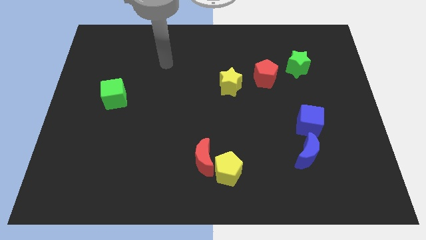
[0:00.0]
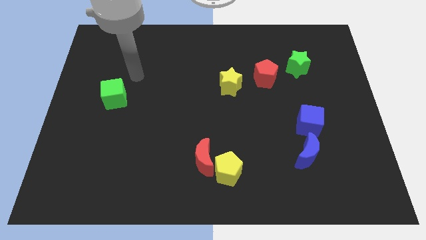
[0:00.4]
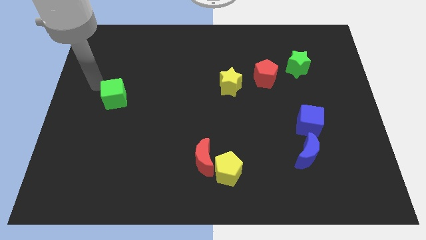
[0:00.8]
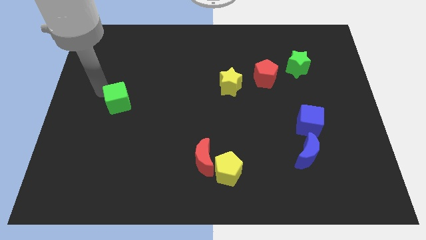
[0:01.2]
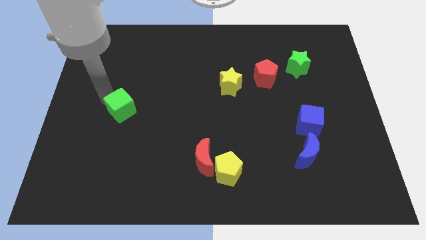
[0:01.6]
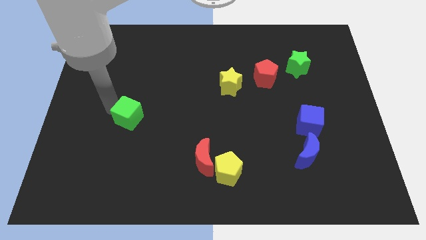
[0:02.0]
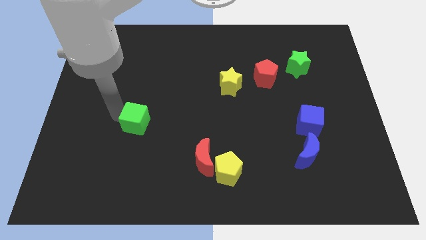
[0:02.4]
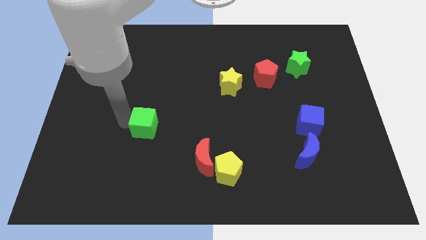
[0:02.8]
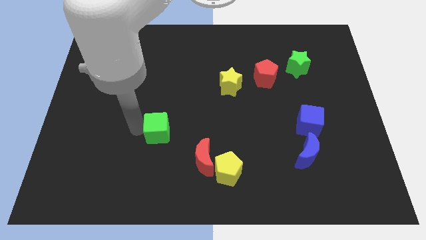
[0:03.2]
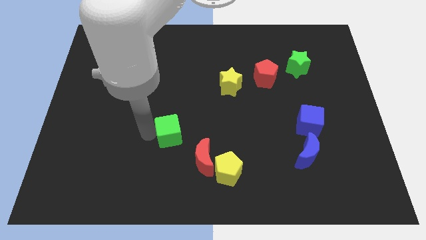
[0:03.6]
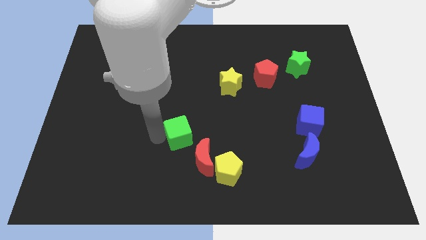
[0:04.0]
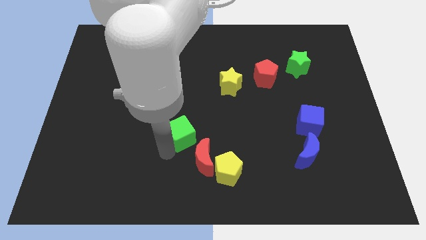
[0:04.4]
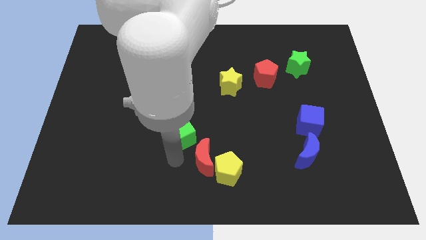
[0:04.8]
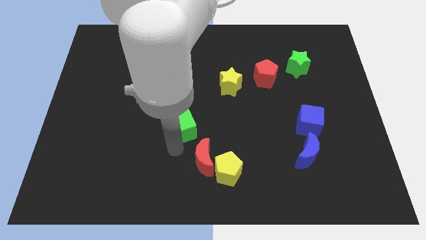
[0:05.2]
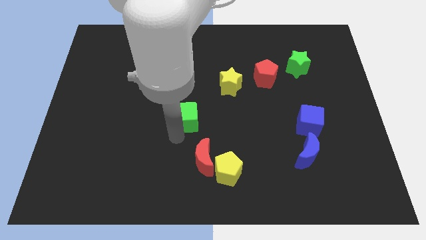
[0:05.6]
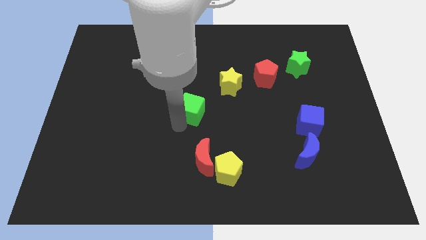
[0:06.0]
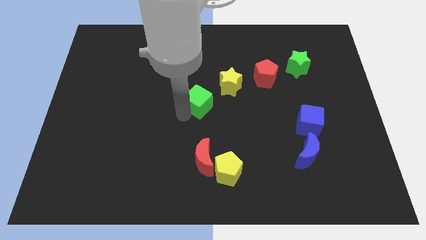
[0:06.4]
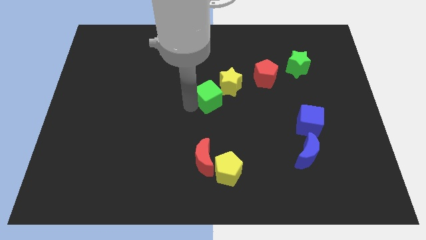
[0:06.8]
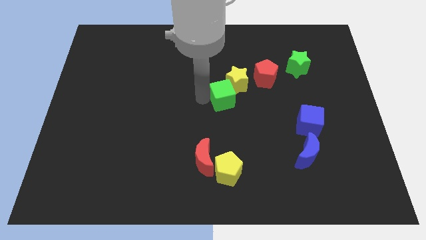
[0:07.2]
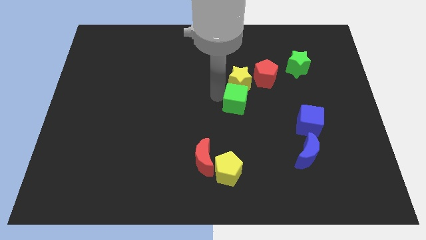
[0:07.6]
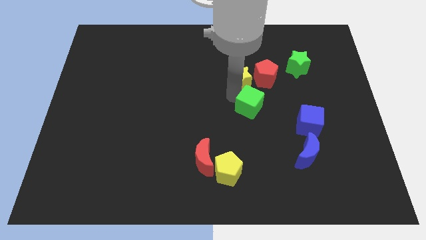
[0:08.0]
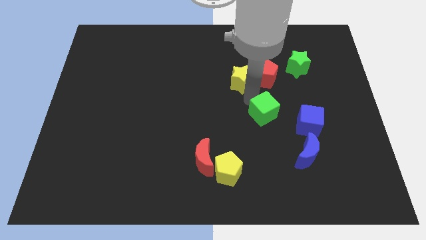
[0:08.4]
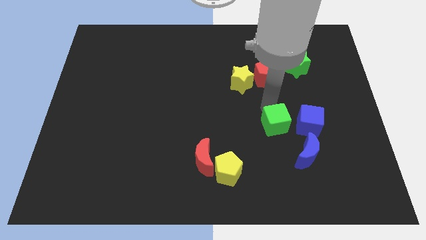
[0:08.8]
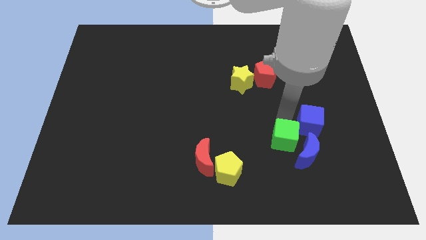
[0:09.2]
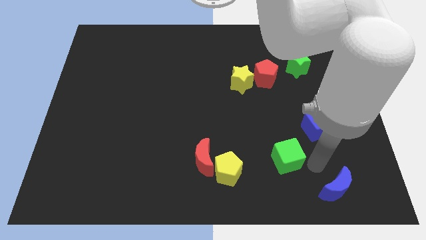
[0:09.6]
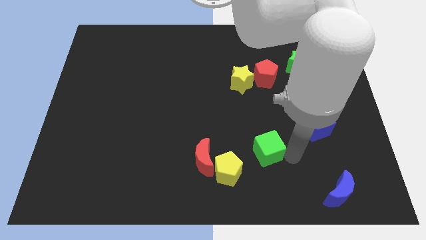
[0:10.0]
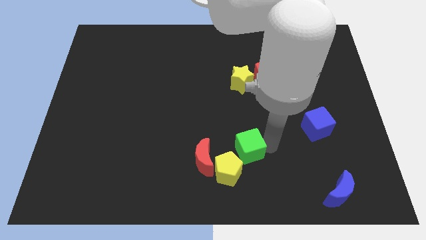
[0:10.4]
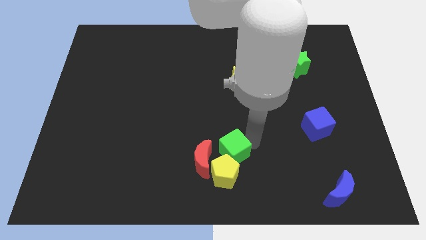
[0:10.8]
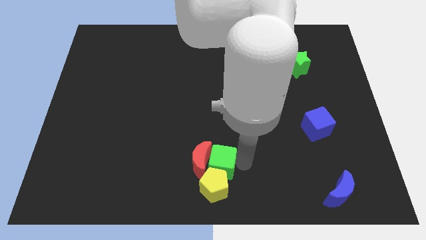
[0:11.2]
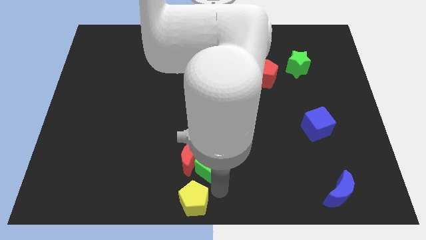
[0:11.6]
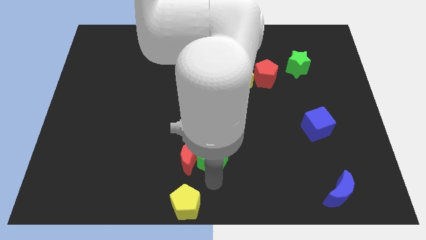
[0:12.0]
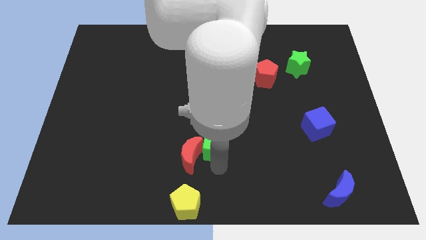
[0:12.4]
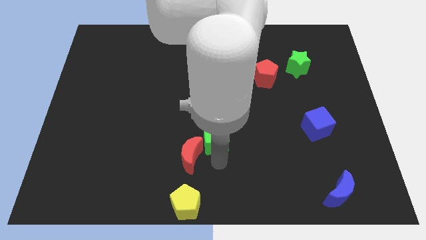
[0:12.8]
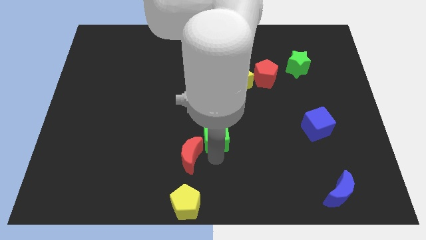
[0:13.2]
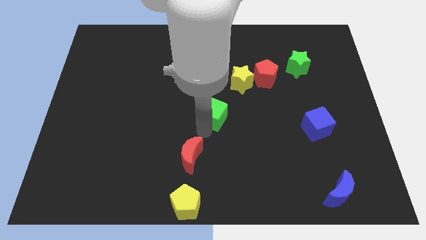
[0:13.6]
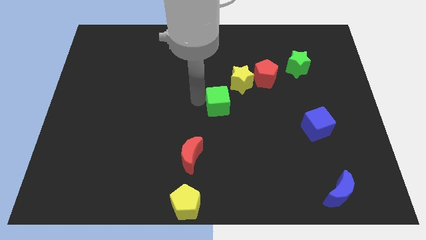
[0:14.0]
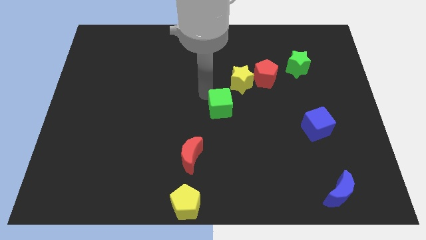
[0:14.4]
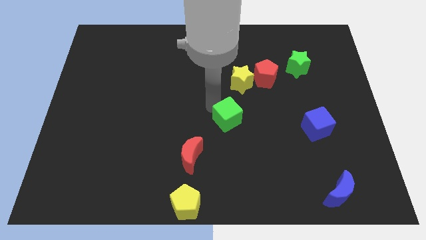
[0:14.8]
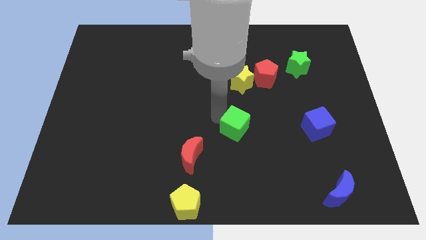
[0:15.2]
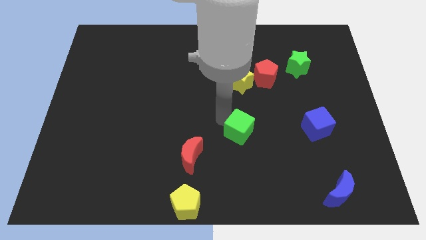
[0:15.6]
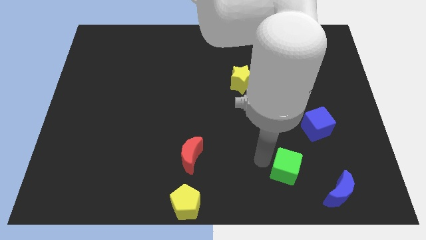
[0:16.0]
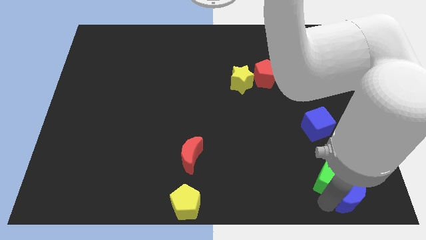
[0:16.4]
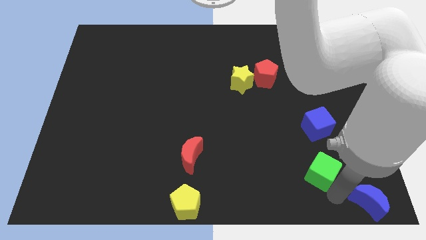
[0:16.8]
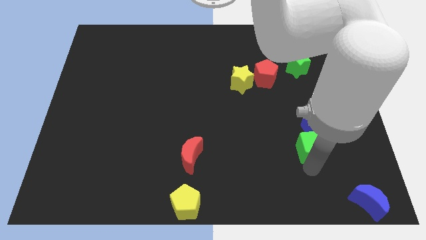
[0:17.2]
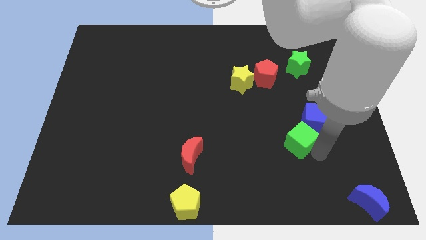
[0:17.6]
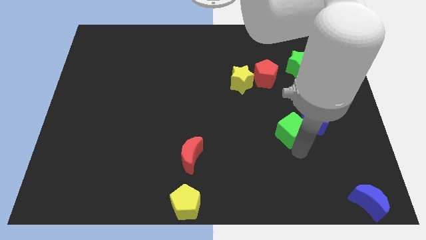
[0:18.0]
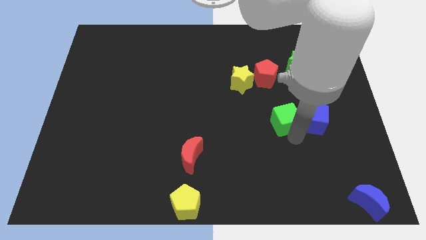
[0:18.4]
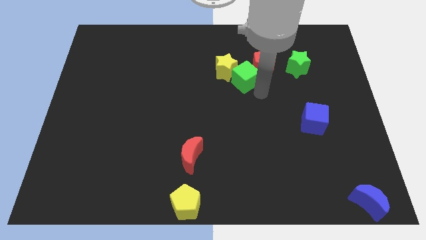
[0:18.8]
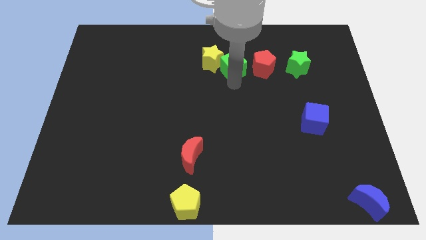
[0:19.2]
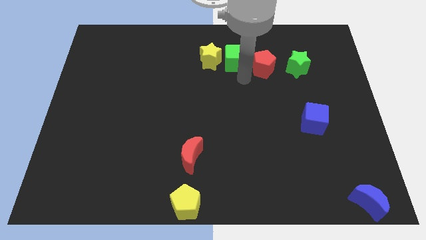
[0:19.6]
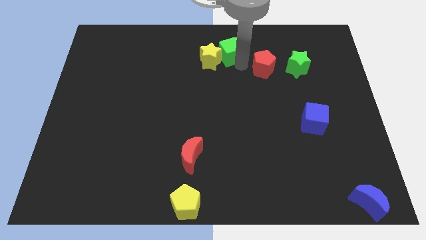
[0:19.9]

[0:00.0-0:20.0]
put the green cube to the top

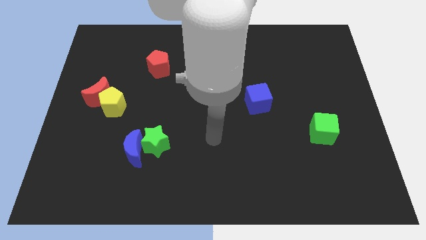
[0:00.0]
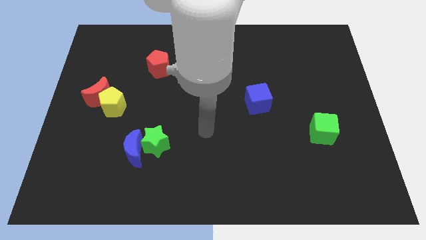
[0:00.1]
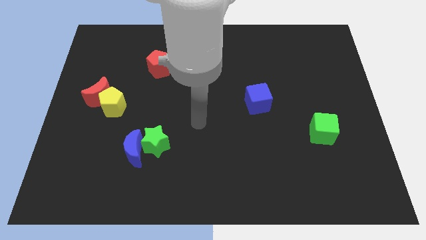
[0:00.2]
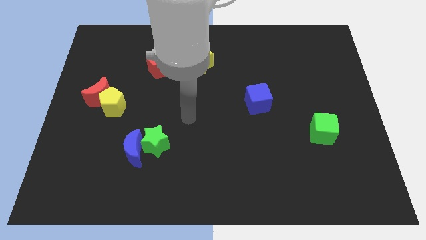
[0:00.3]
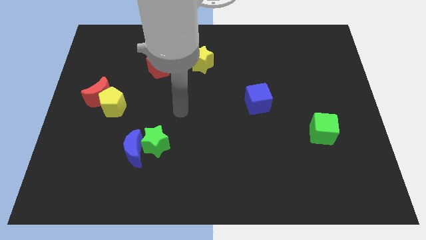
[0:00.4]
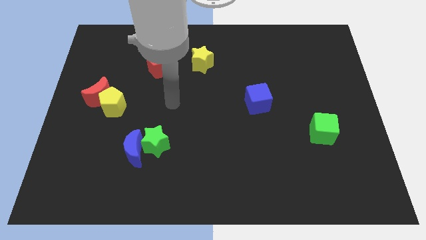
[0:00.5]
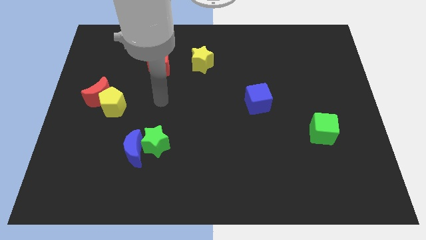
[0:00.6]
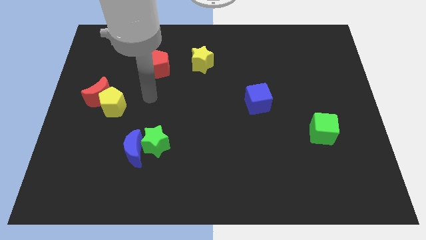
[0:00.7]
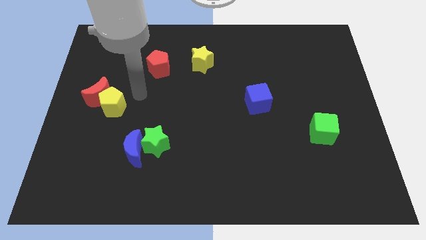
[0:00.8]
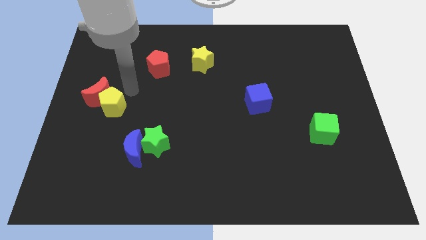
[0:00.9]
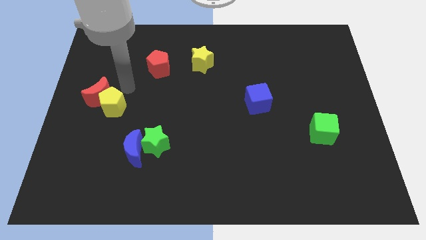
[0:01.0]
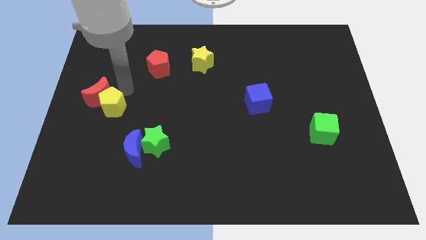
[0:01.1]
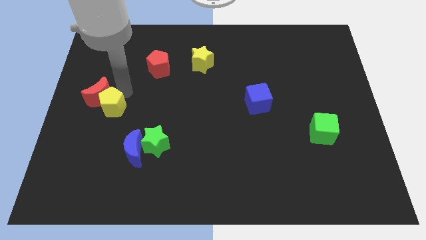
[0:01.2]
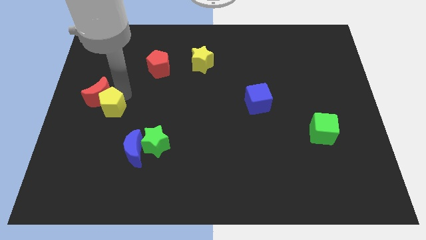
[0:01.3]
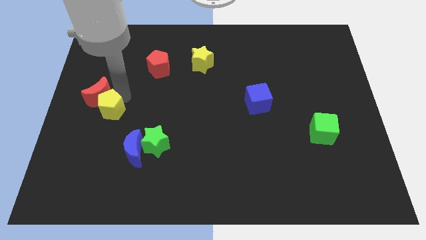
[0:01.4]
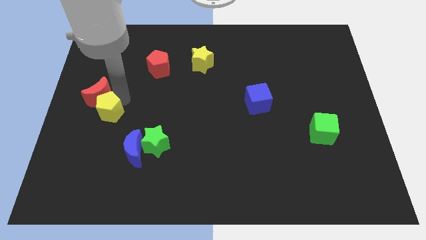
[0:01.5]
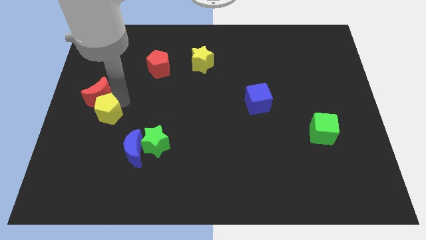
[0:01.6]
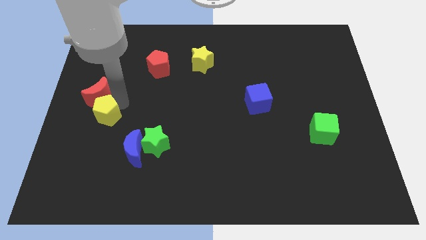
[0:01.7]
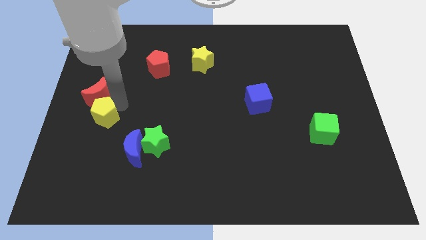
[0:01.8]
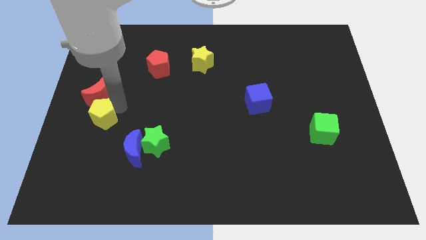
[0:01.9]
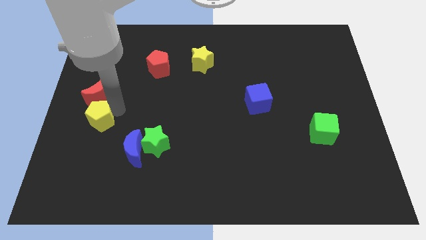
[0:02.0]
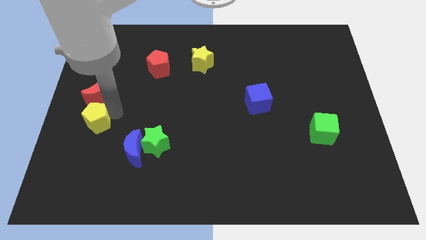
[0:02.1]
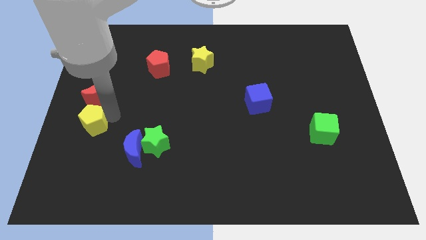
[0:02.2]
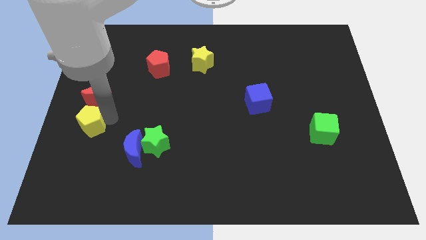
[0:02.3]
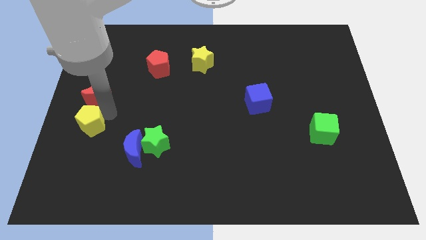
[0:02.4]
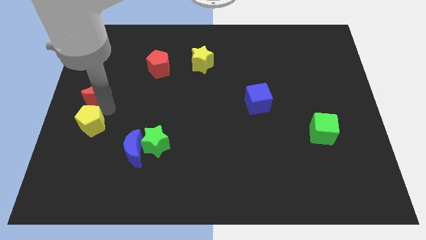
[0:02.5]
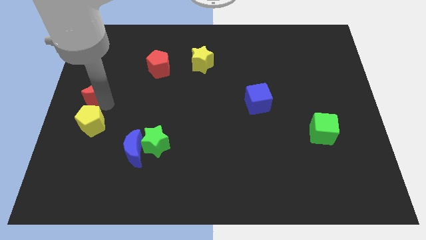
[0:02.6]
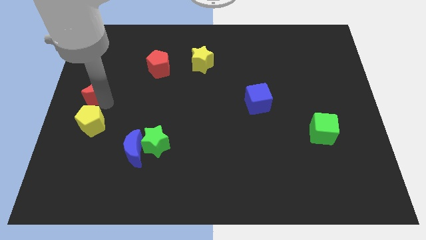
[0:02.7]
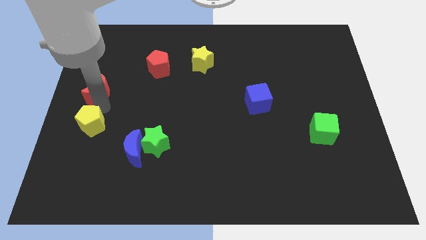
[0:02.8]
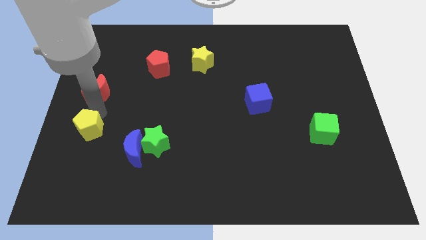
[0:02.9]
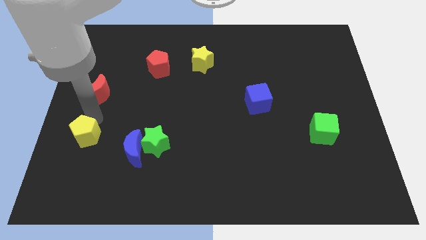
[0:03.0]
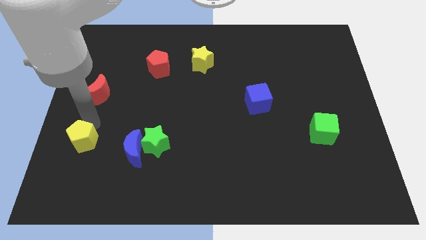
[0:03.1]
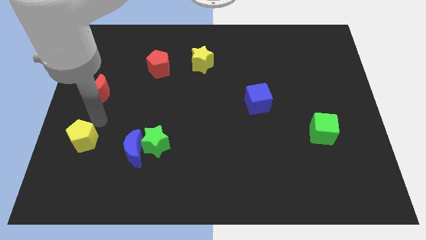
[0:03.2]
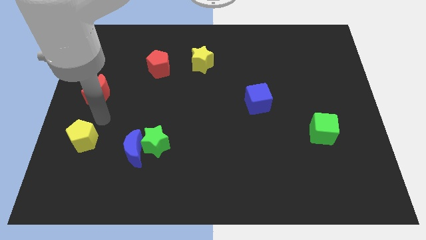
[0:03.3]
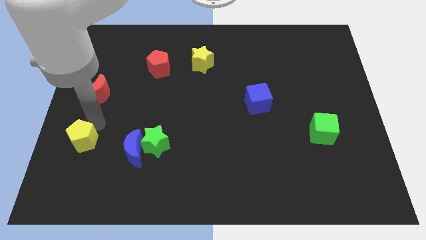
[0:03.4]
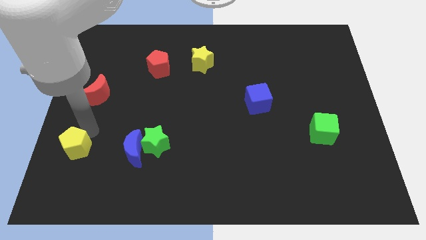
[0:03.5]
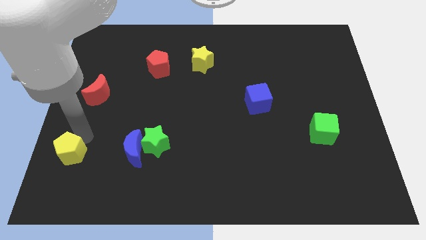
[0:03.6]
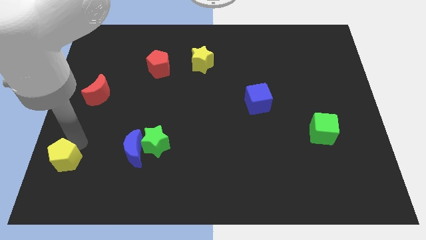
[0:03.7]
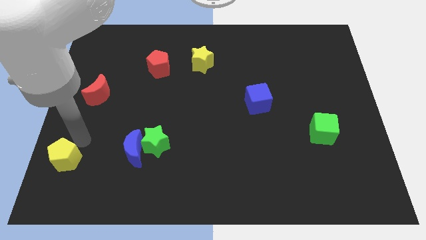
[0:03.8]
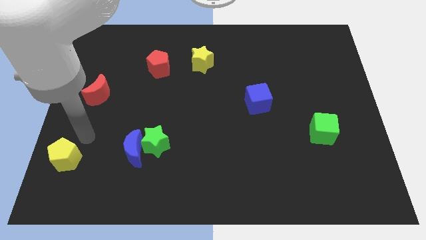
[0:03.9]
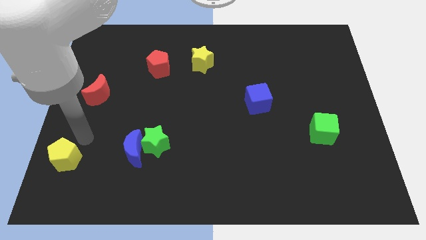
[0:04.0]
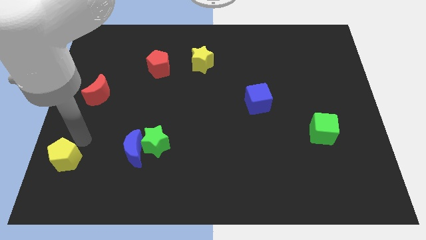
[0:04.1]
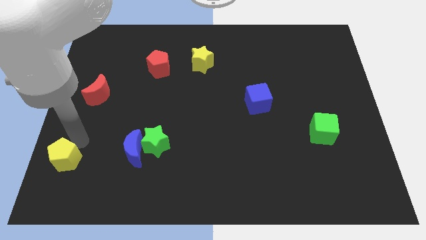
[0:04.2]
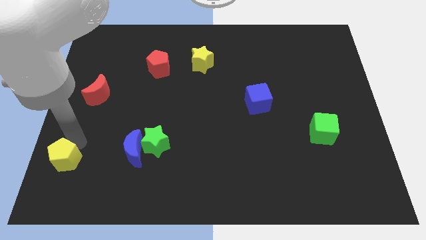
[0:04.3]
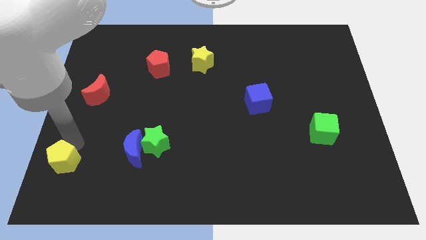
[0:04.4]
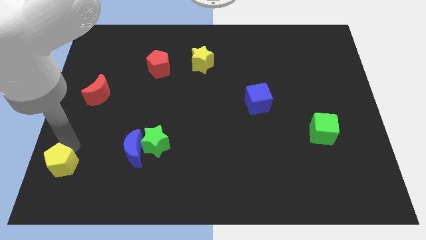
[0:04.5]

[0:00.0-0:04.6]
move the yellow pentagon to the bottom left
